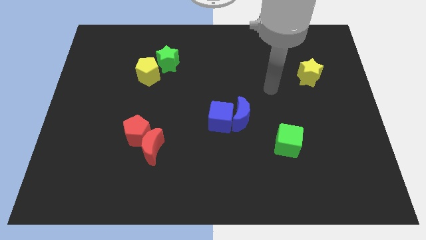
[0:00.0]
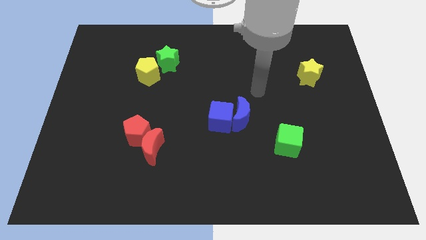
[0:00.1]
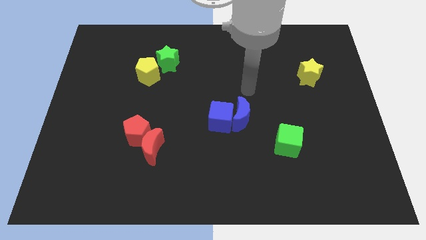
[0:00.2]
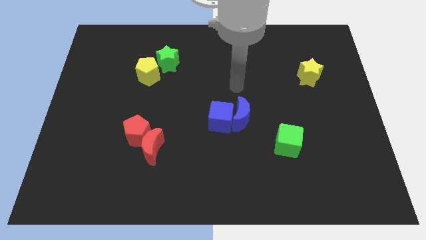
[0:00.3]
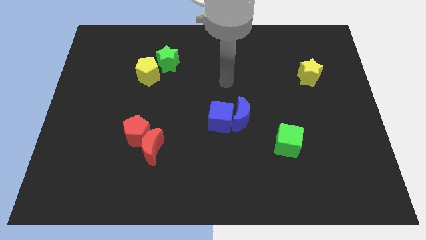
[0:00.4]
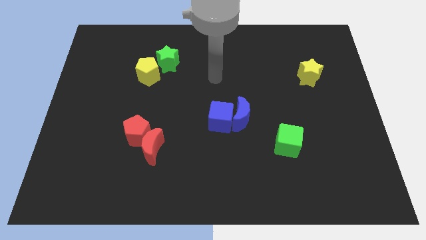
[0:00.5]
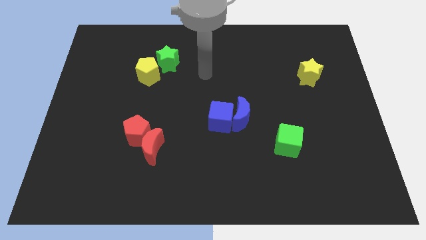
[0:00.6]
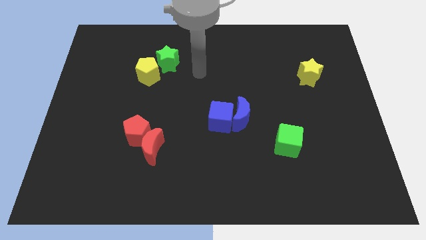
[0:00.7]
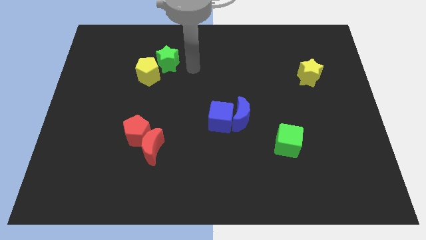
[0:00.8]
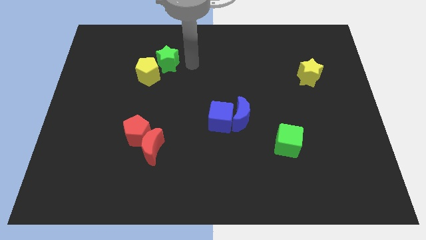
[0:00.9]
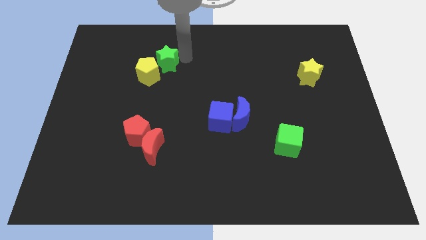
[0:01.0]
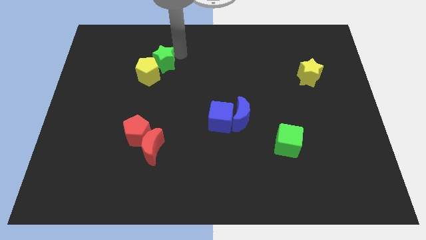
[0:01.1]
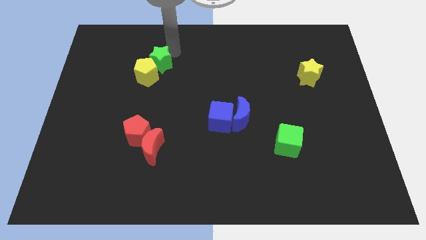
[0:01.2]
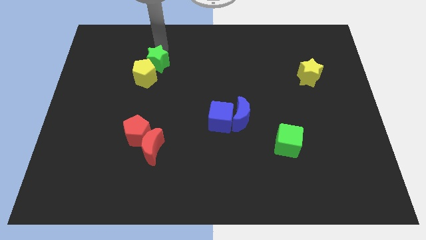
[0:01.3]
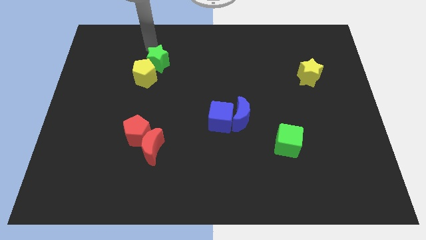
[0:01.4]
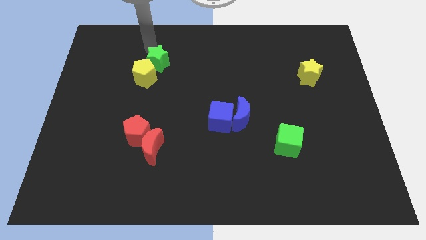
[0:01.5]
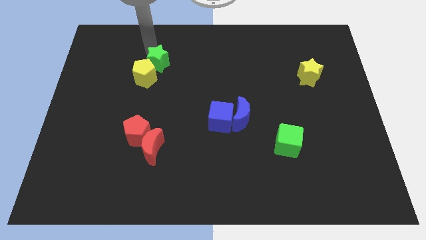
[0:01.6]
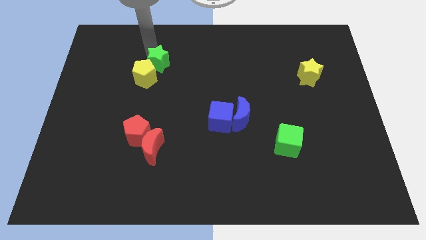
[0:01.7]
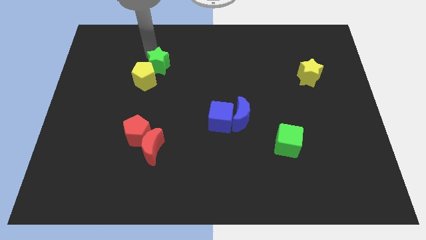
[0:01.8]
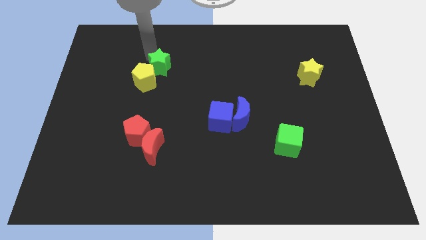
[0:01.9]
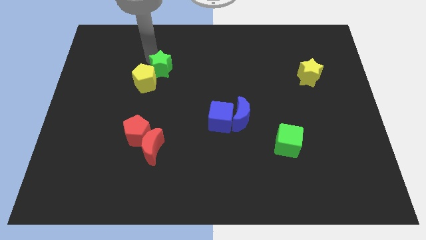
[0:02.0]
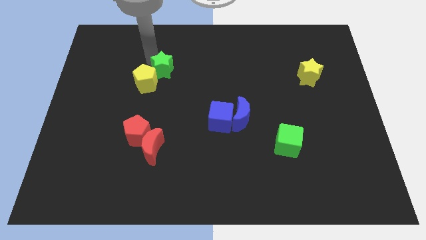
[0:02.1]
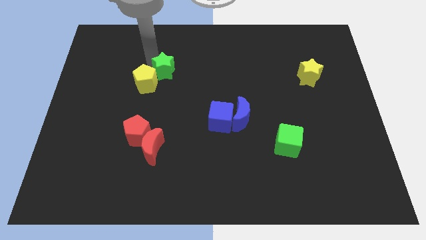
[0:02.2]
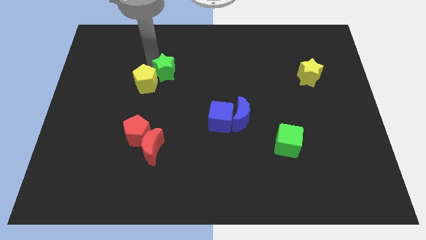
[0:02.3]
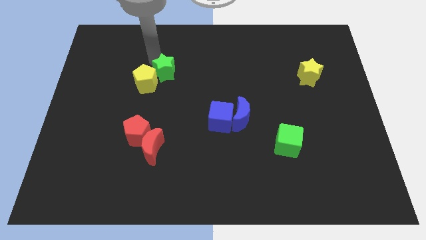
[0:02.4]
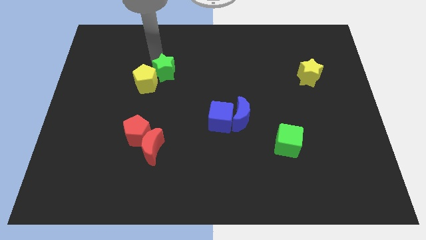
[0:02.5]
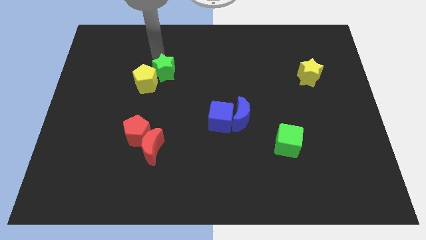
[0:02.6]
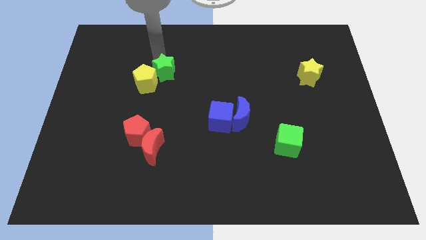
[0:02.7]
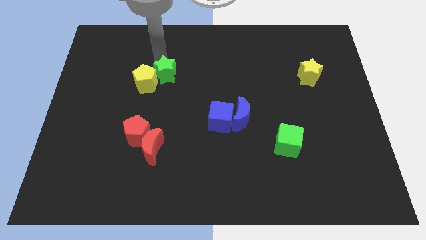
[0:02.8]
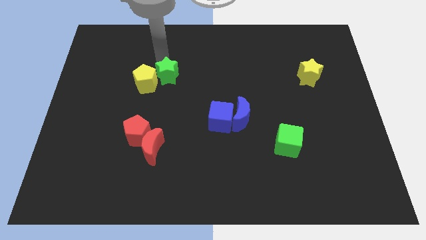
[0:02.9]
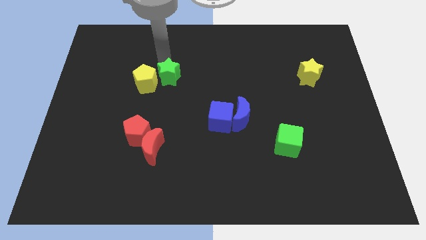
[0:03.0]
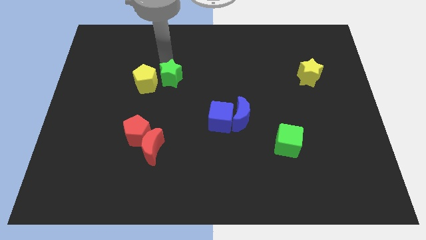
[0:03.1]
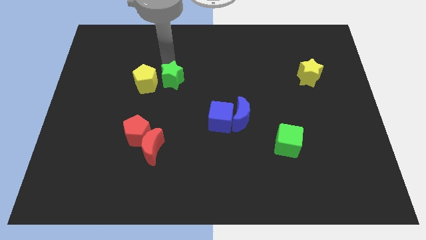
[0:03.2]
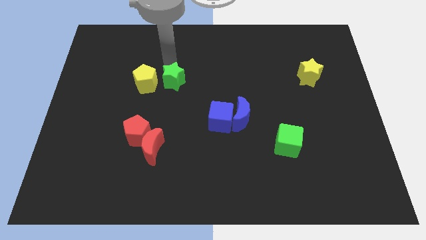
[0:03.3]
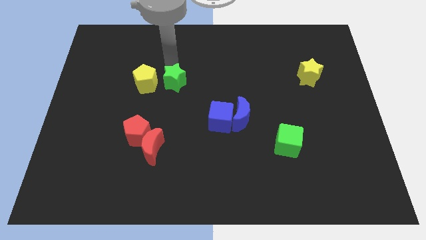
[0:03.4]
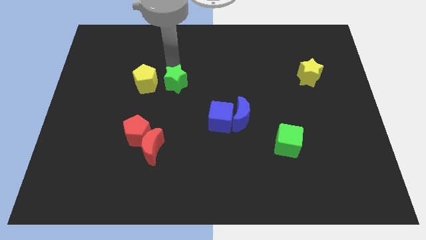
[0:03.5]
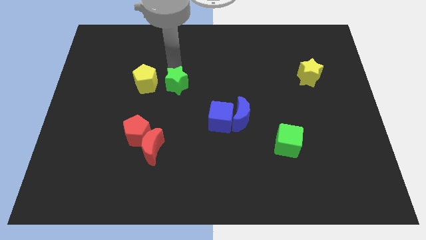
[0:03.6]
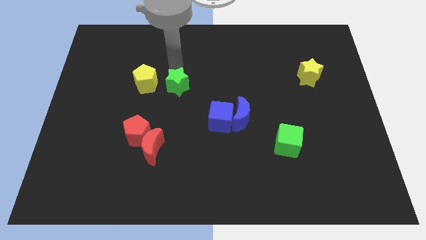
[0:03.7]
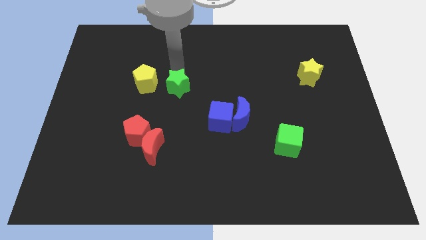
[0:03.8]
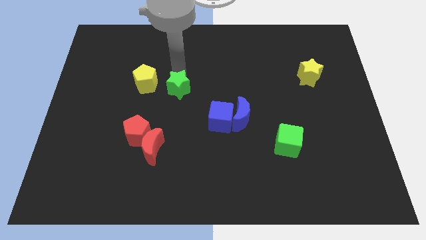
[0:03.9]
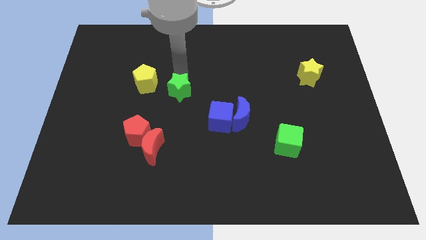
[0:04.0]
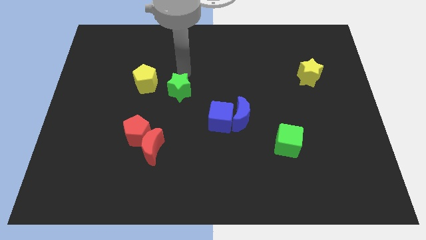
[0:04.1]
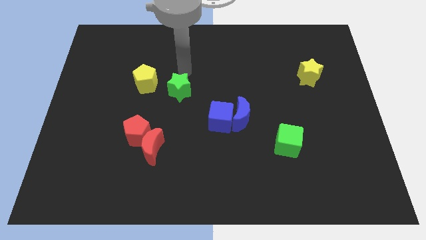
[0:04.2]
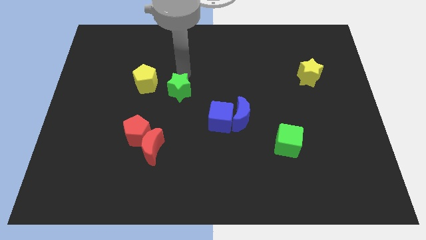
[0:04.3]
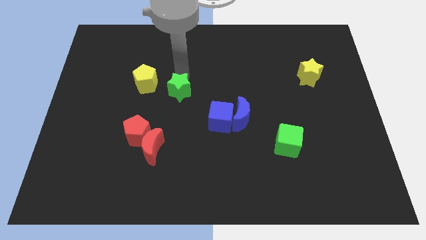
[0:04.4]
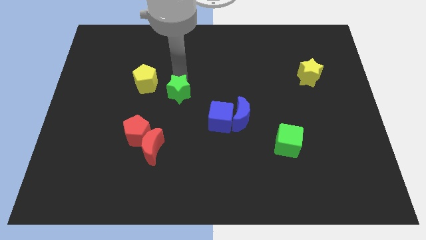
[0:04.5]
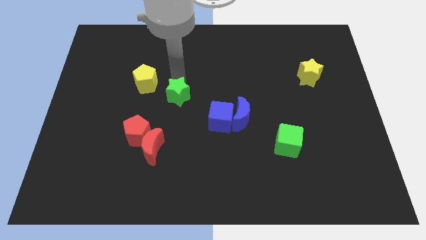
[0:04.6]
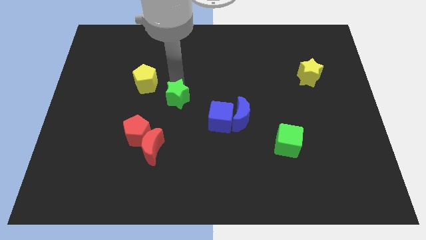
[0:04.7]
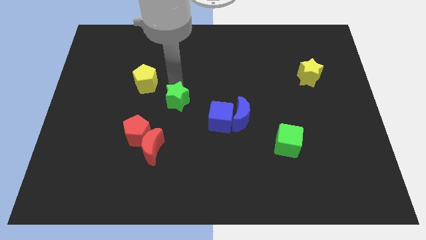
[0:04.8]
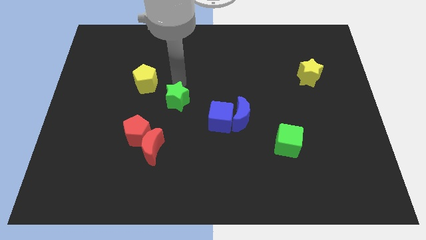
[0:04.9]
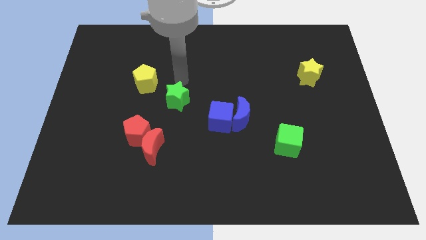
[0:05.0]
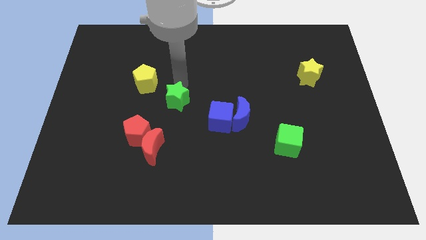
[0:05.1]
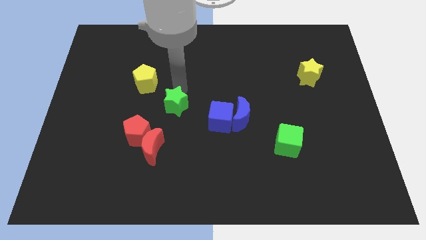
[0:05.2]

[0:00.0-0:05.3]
slide the green star left of the blue cube

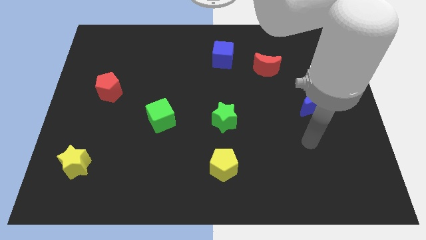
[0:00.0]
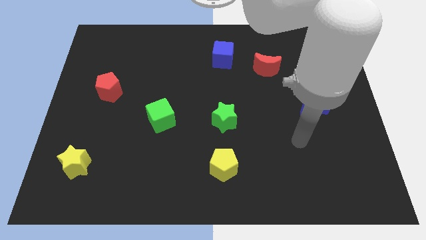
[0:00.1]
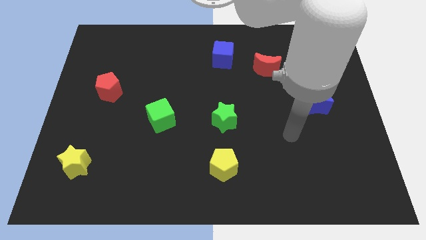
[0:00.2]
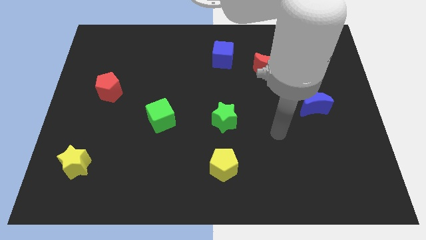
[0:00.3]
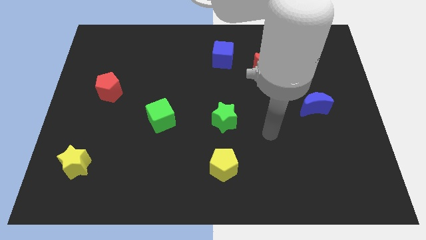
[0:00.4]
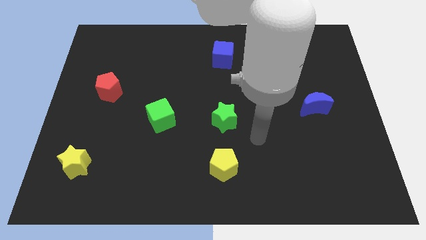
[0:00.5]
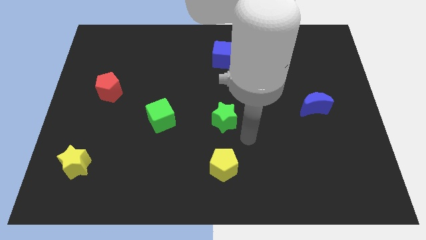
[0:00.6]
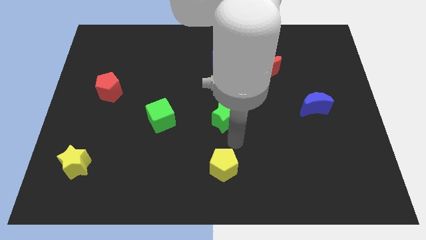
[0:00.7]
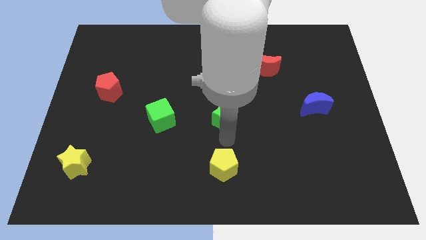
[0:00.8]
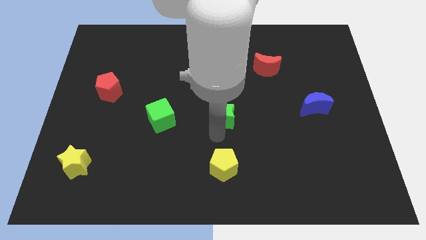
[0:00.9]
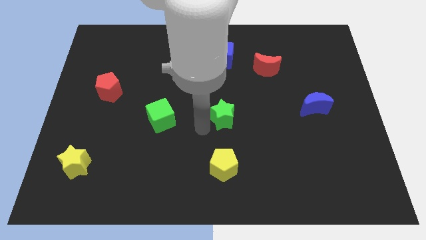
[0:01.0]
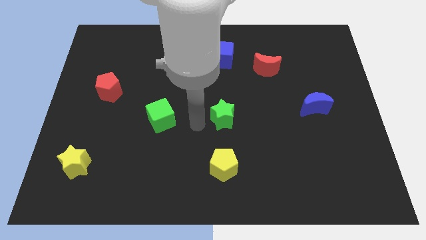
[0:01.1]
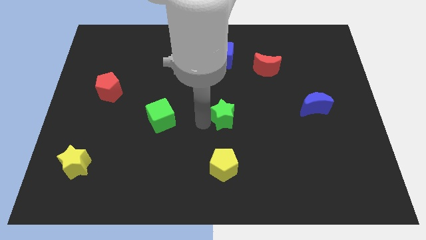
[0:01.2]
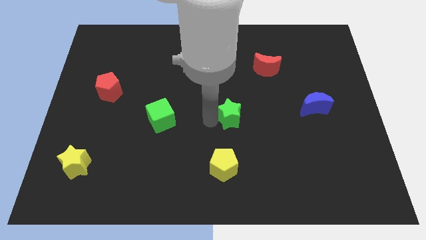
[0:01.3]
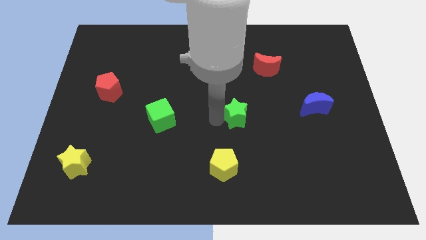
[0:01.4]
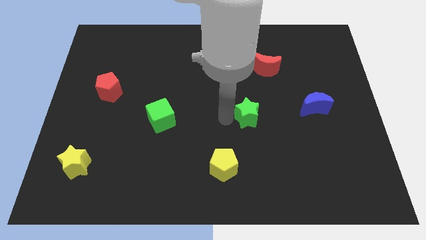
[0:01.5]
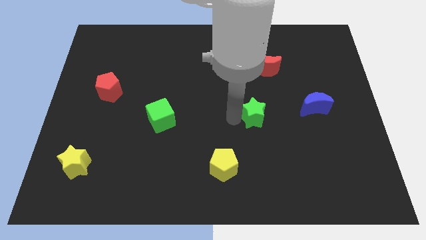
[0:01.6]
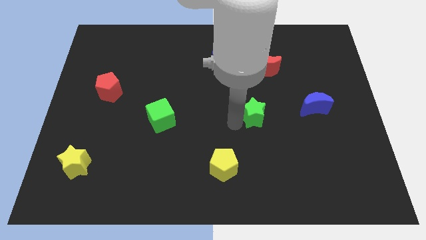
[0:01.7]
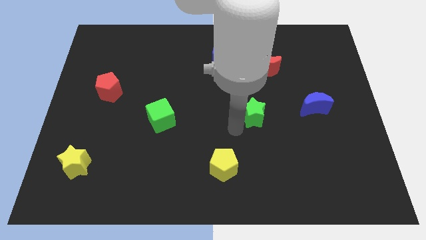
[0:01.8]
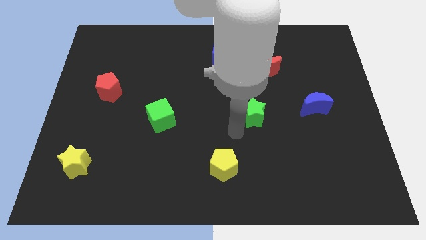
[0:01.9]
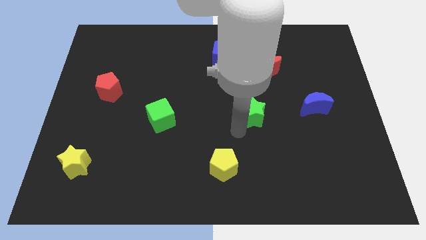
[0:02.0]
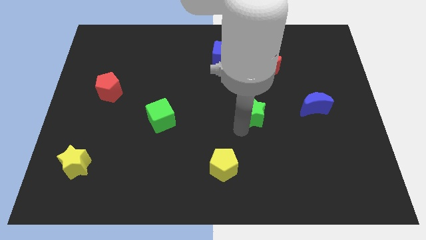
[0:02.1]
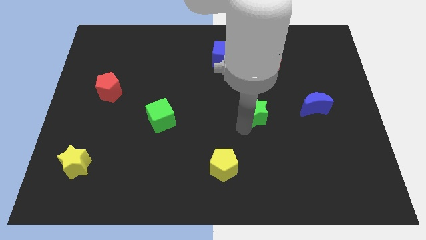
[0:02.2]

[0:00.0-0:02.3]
slide the green star below the red moon

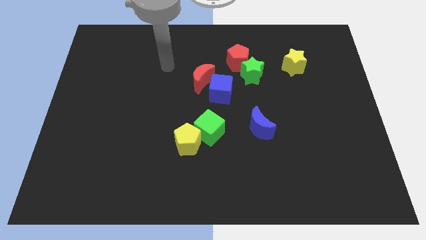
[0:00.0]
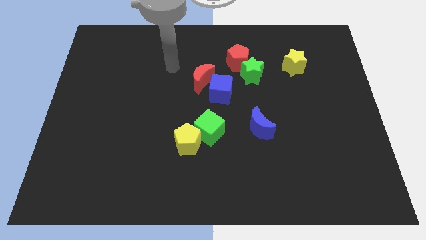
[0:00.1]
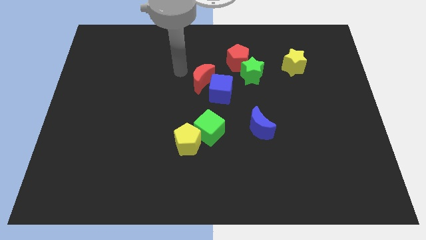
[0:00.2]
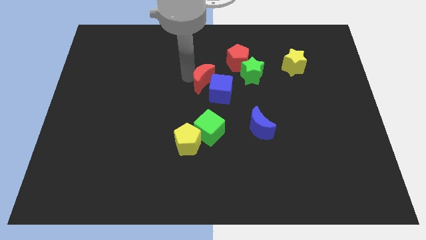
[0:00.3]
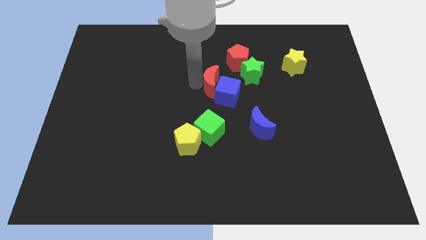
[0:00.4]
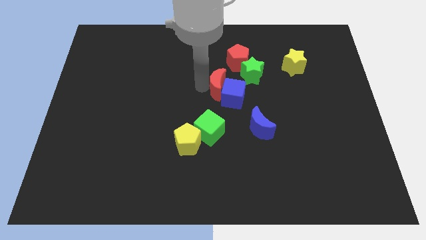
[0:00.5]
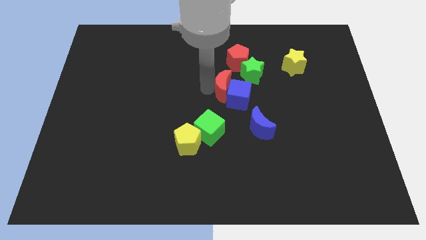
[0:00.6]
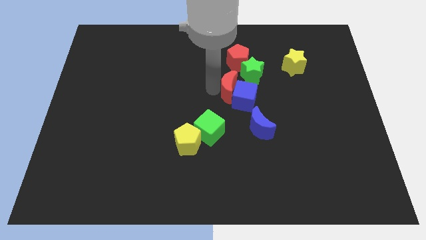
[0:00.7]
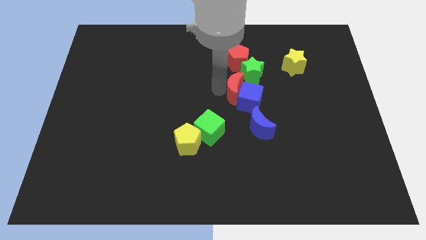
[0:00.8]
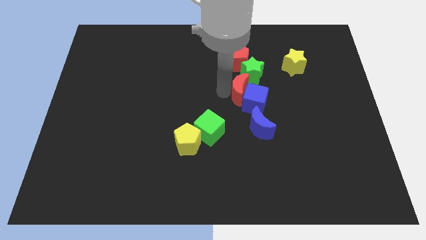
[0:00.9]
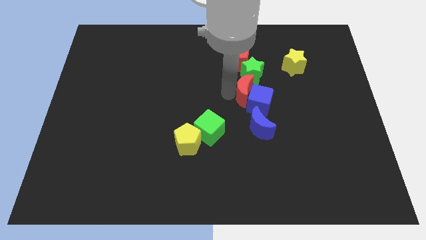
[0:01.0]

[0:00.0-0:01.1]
put the blue cube diagonally up and to the right of the blue moon
